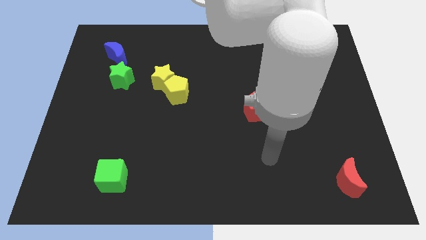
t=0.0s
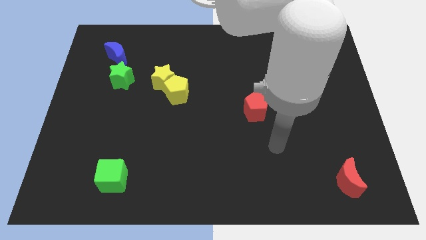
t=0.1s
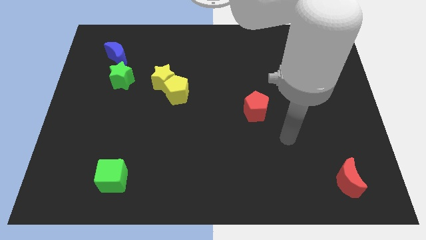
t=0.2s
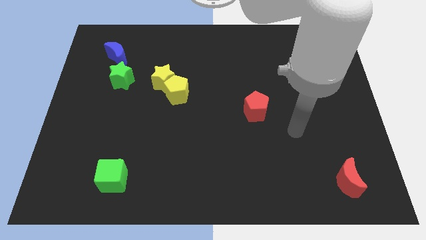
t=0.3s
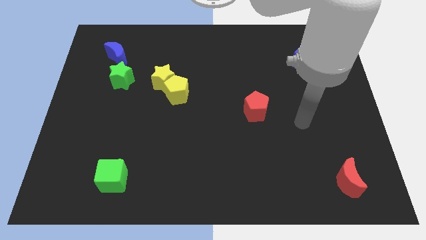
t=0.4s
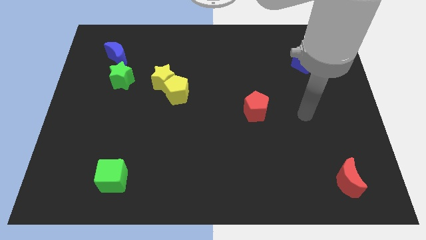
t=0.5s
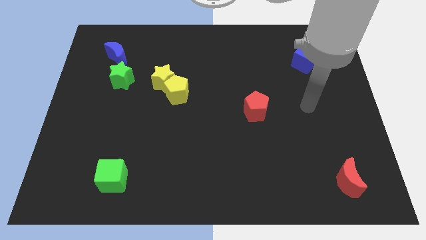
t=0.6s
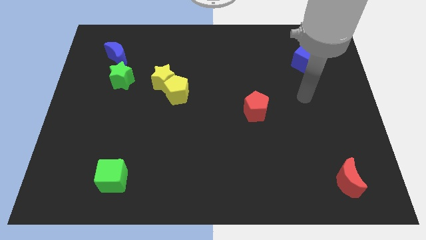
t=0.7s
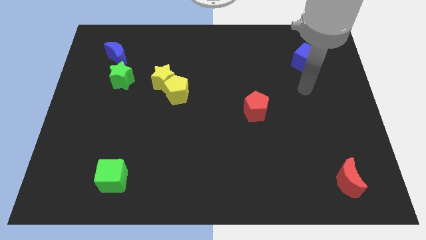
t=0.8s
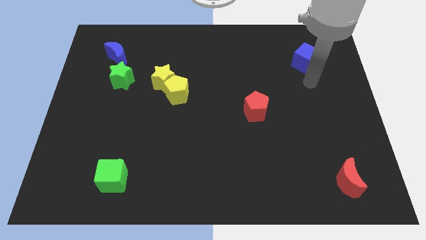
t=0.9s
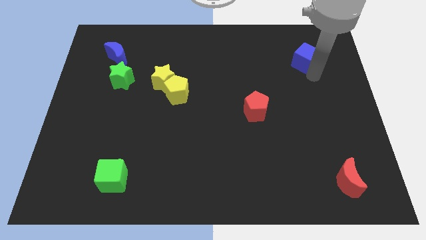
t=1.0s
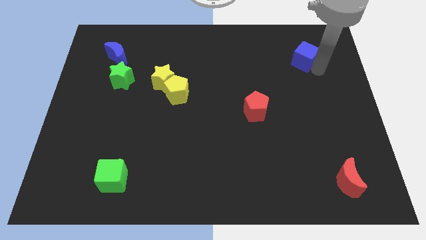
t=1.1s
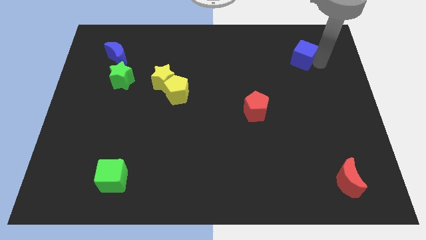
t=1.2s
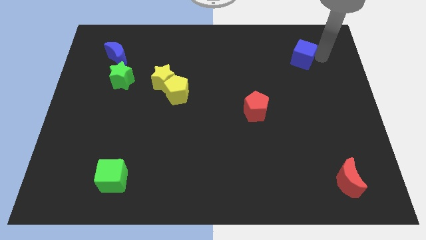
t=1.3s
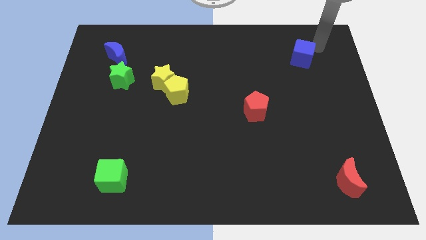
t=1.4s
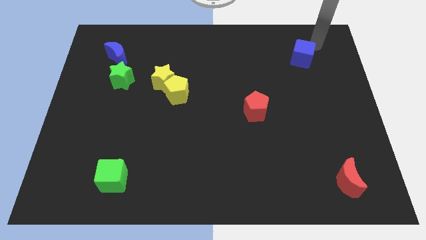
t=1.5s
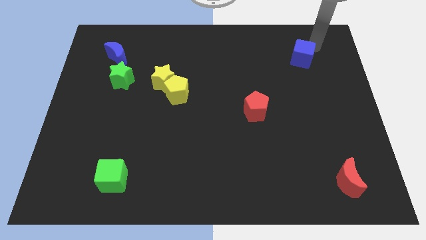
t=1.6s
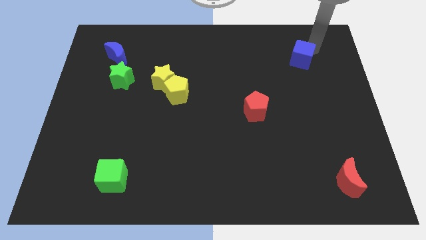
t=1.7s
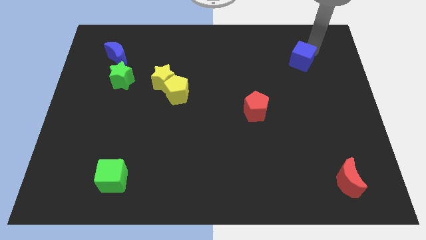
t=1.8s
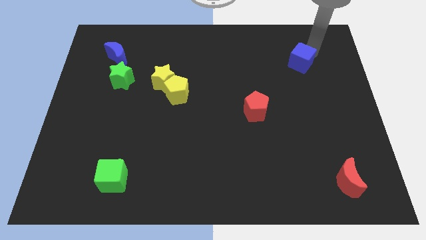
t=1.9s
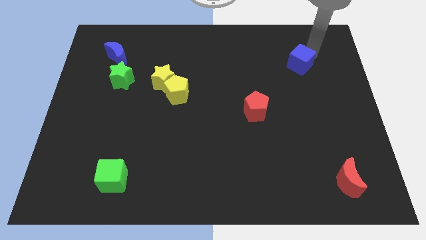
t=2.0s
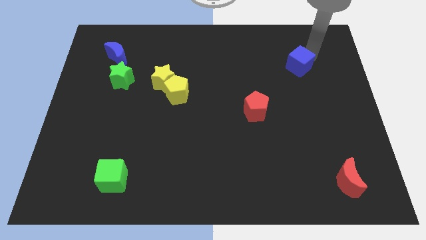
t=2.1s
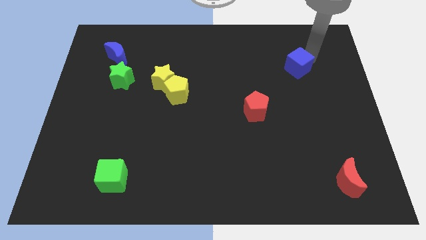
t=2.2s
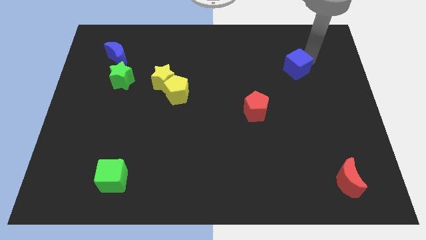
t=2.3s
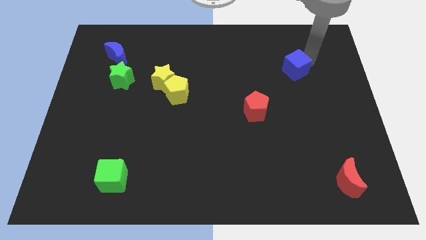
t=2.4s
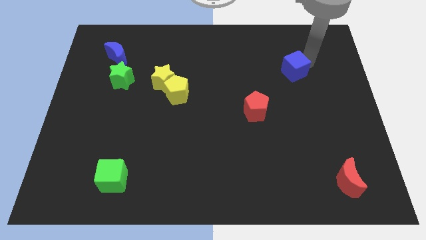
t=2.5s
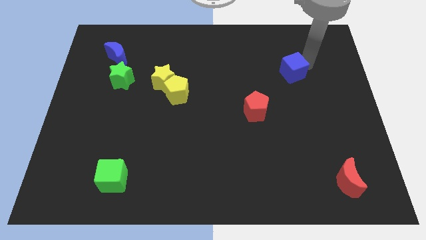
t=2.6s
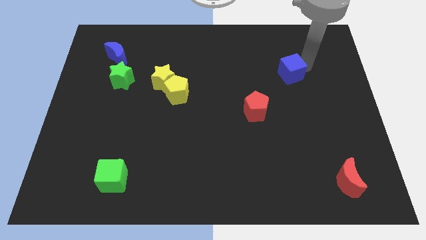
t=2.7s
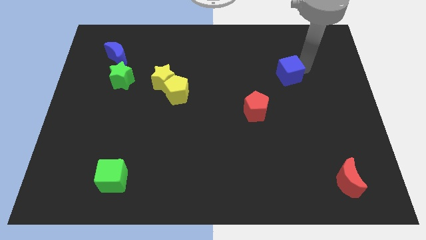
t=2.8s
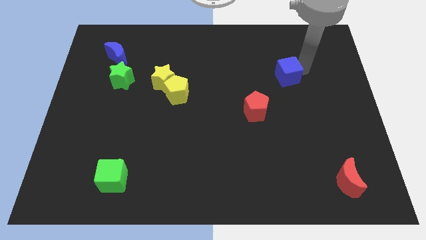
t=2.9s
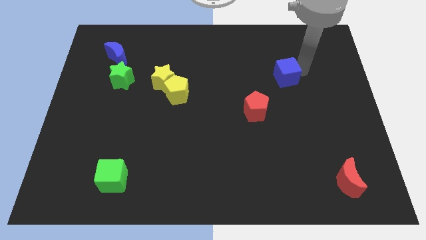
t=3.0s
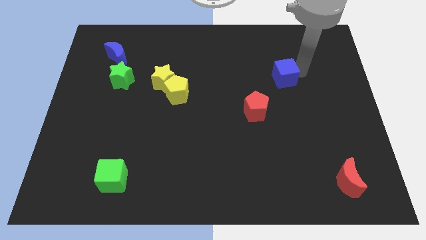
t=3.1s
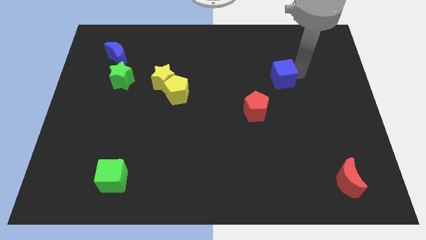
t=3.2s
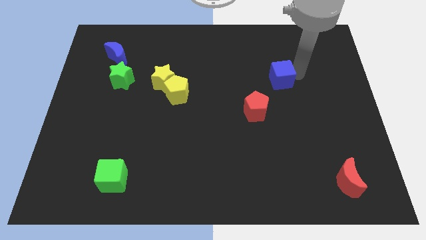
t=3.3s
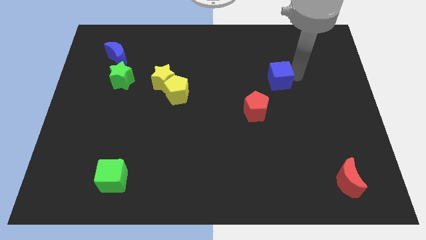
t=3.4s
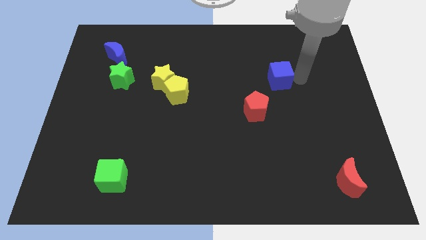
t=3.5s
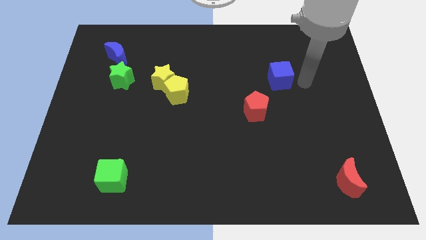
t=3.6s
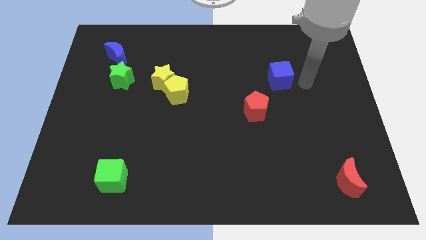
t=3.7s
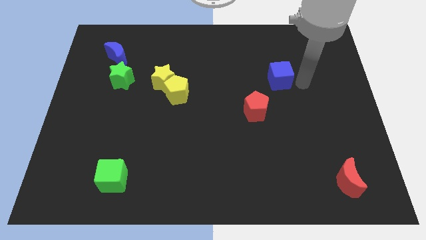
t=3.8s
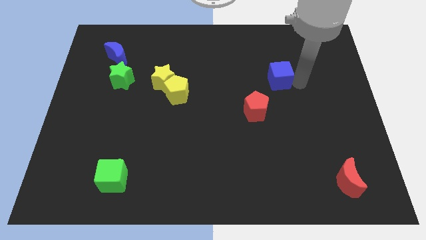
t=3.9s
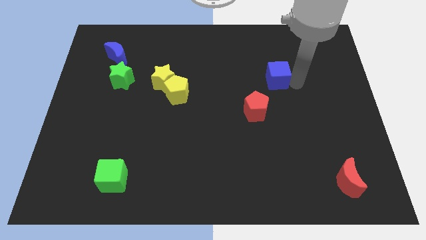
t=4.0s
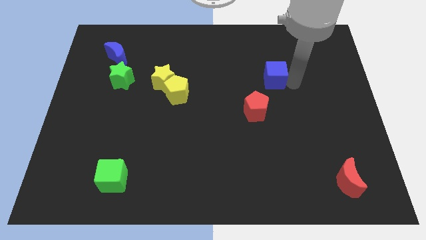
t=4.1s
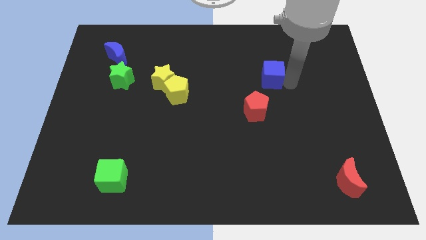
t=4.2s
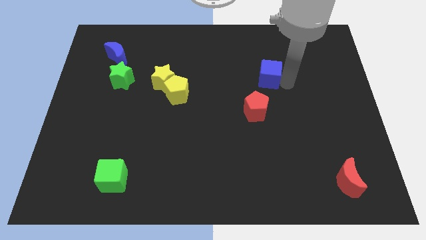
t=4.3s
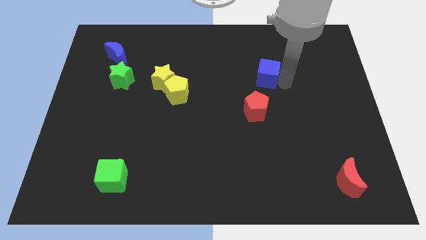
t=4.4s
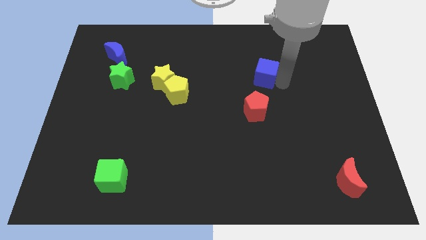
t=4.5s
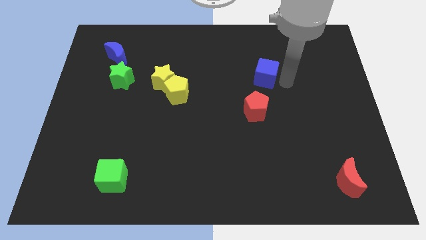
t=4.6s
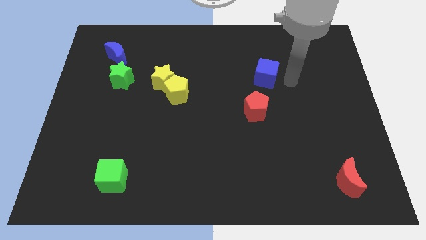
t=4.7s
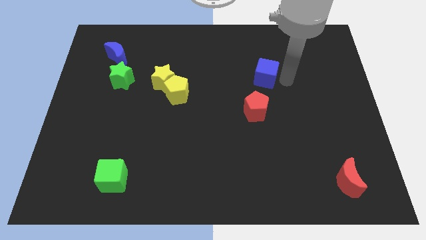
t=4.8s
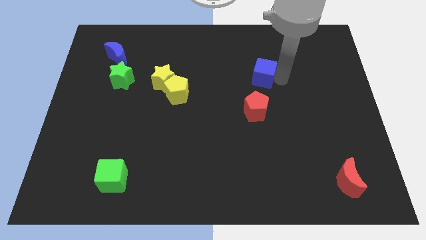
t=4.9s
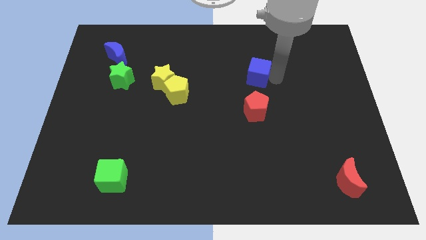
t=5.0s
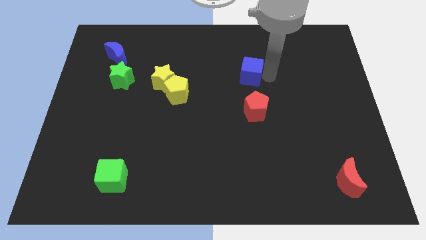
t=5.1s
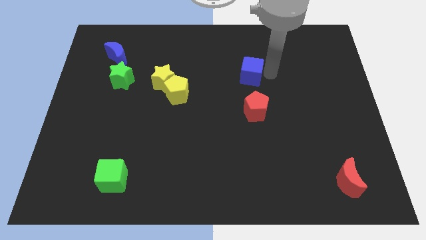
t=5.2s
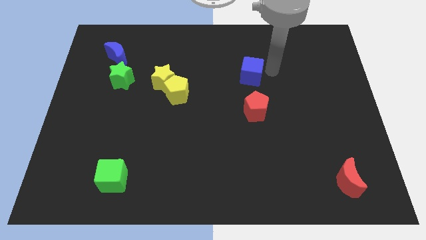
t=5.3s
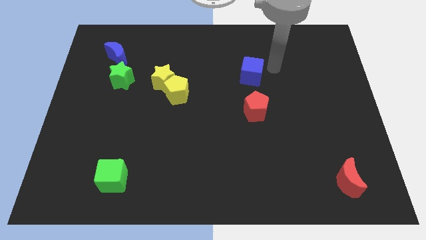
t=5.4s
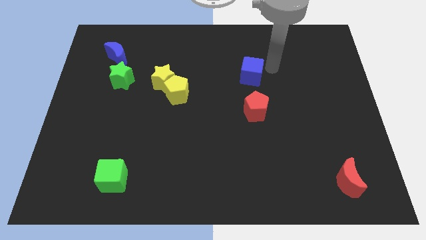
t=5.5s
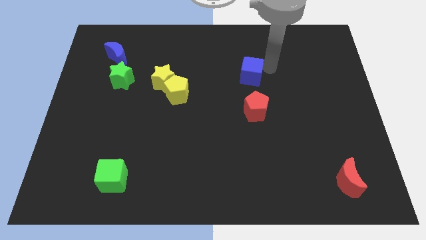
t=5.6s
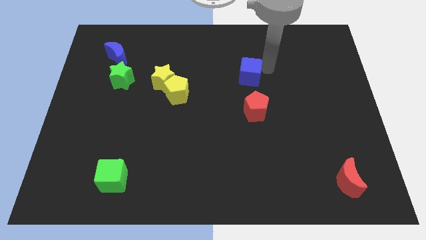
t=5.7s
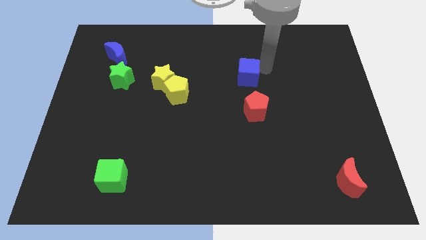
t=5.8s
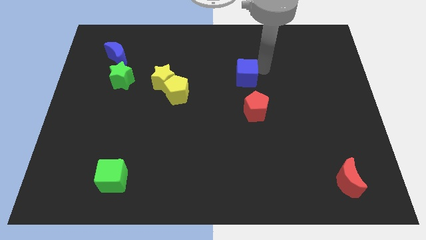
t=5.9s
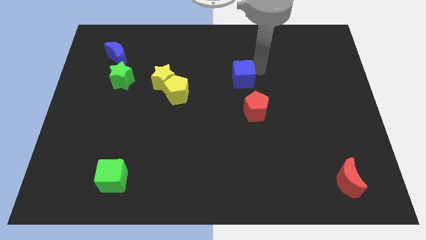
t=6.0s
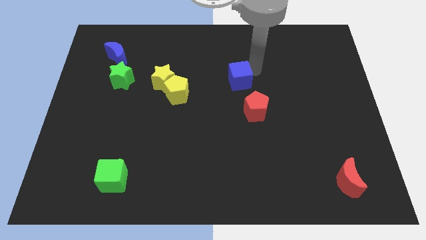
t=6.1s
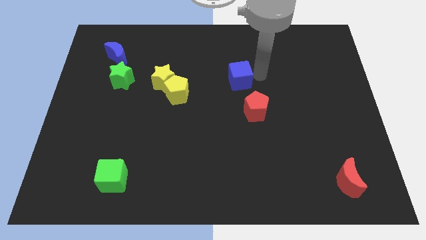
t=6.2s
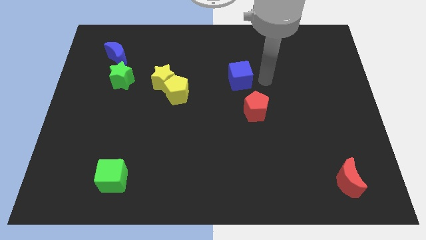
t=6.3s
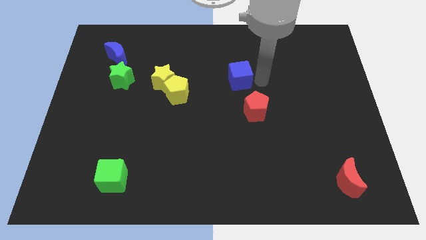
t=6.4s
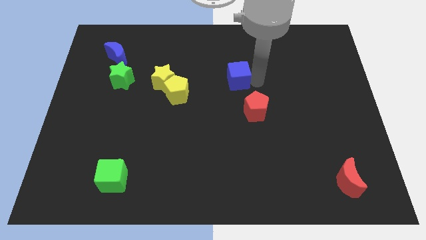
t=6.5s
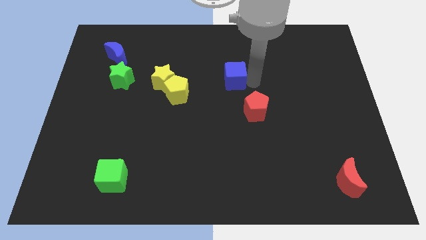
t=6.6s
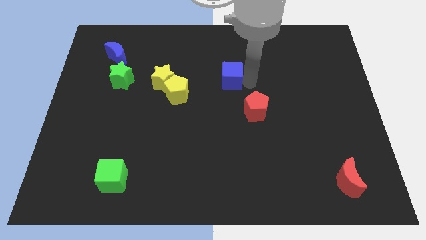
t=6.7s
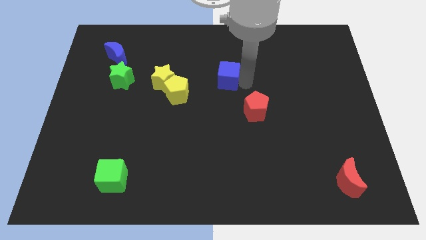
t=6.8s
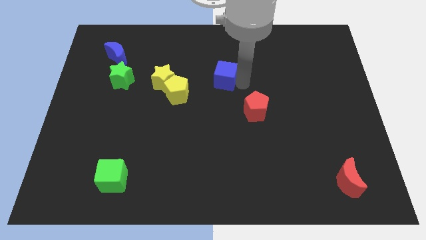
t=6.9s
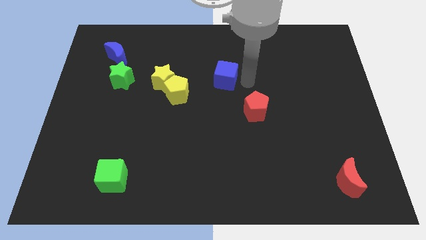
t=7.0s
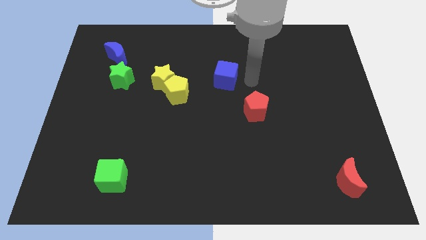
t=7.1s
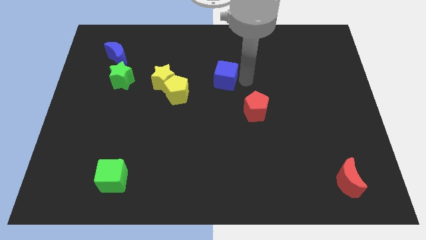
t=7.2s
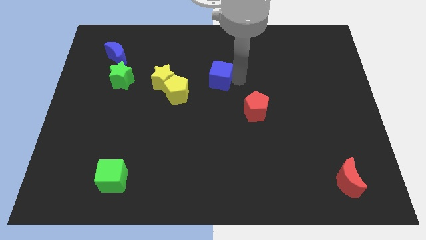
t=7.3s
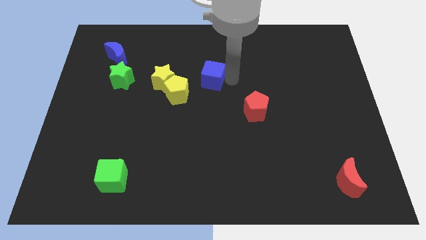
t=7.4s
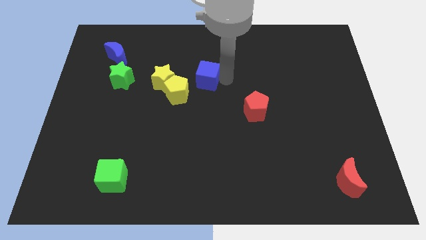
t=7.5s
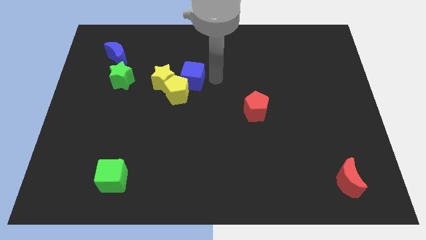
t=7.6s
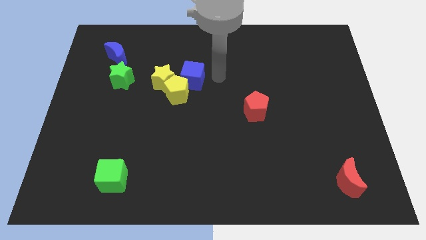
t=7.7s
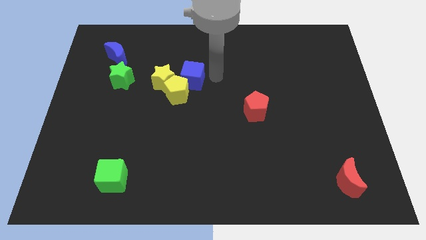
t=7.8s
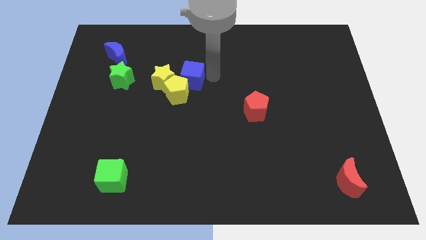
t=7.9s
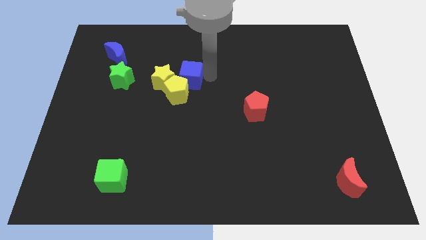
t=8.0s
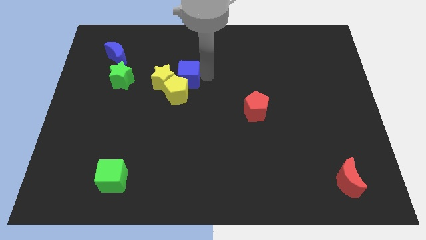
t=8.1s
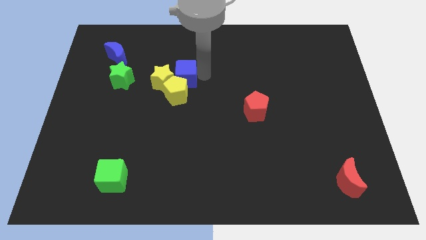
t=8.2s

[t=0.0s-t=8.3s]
put the blue cube next to the yellow star
